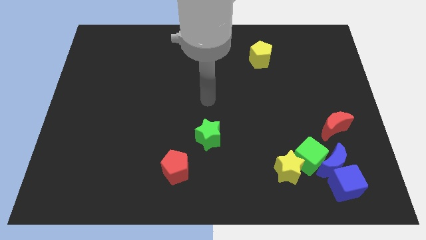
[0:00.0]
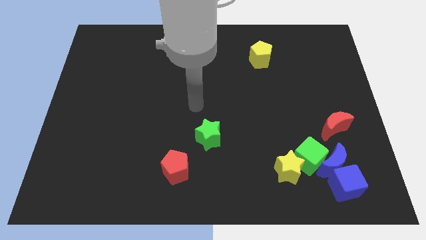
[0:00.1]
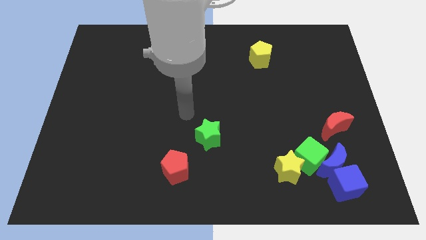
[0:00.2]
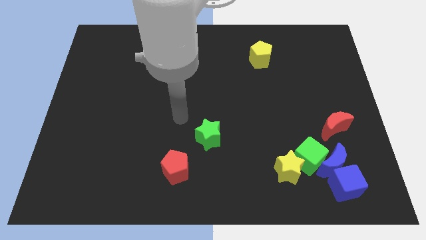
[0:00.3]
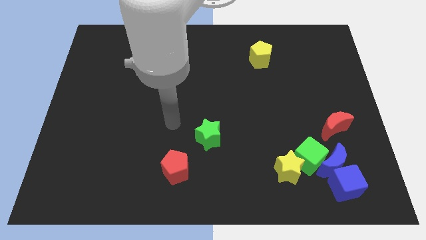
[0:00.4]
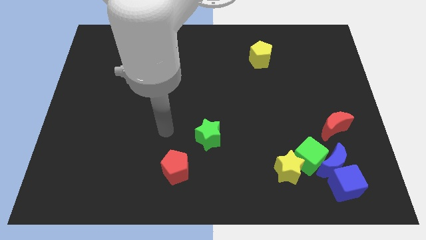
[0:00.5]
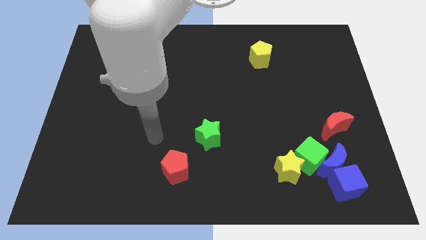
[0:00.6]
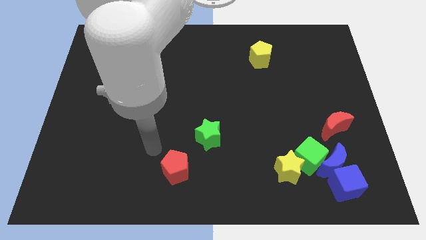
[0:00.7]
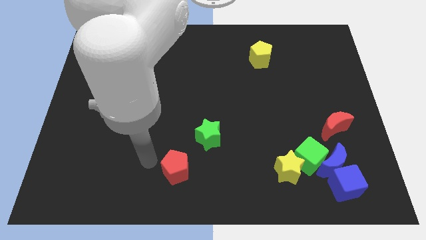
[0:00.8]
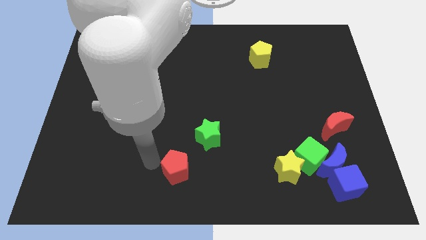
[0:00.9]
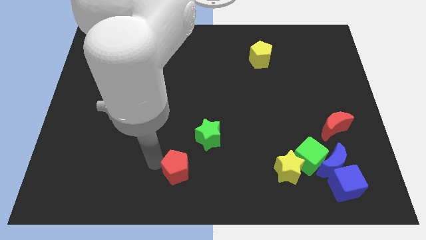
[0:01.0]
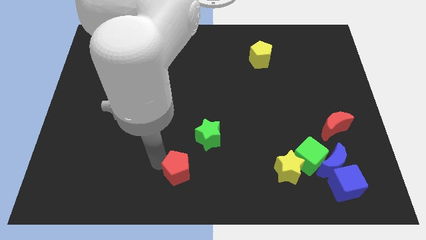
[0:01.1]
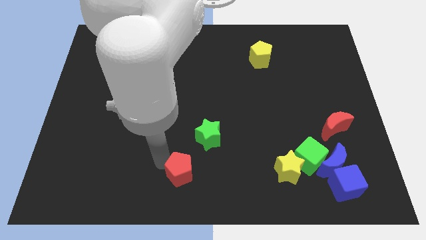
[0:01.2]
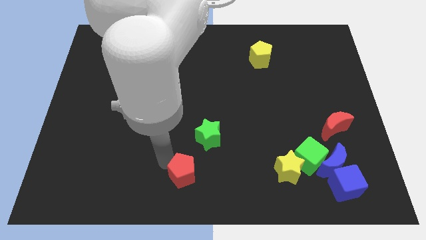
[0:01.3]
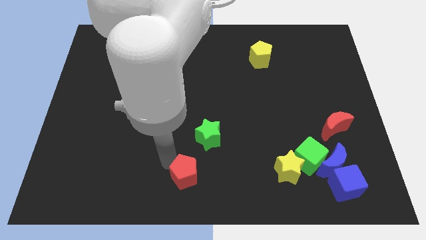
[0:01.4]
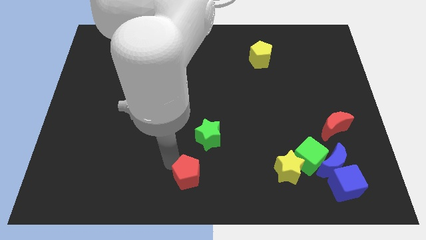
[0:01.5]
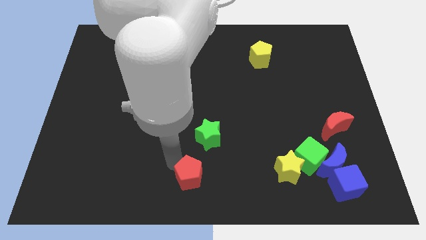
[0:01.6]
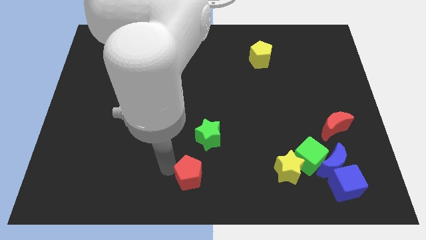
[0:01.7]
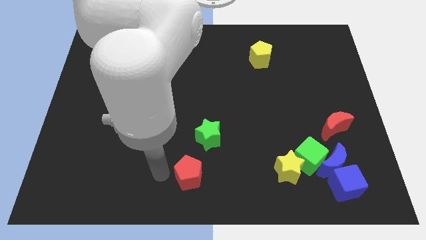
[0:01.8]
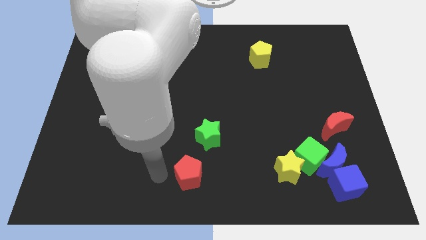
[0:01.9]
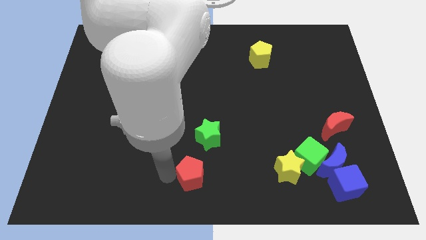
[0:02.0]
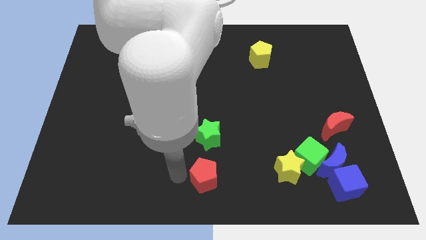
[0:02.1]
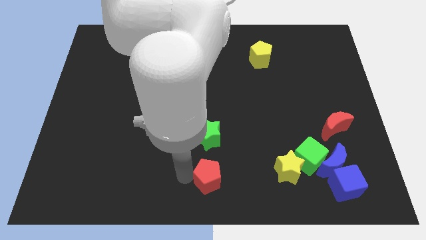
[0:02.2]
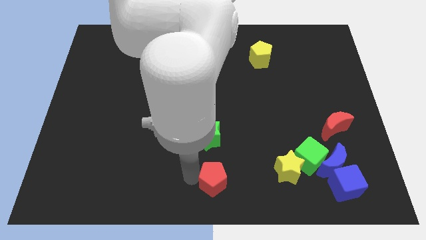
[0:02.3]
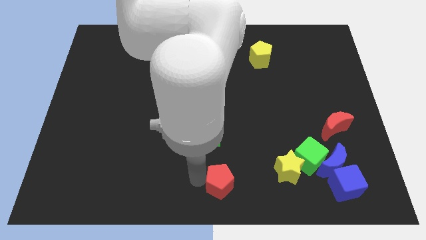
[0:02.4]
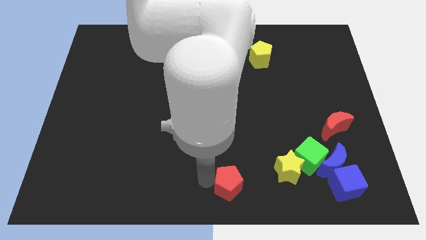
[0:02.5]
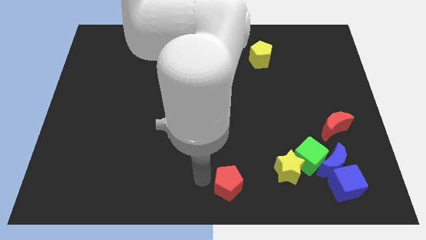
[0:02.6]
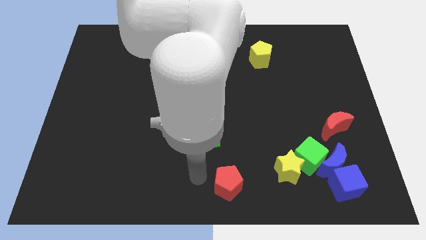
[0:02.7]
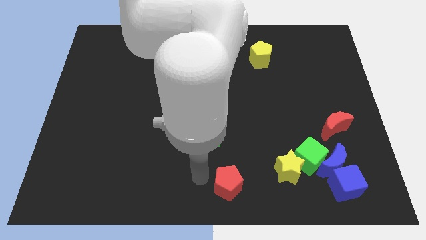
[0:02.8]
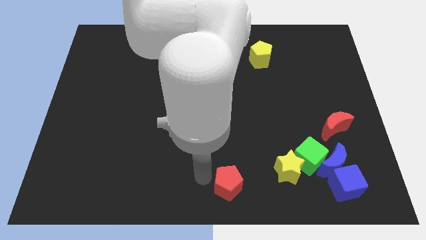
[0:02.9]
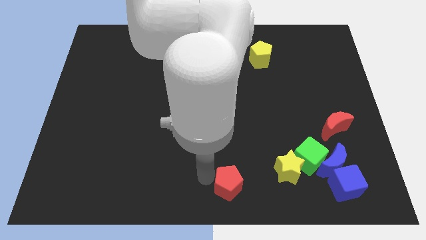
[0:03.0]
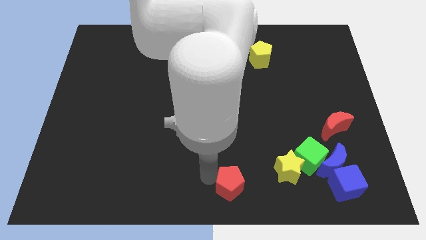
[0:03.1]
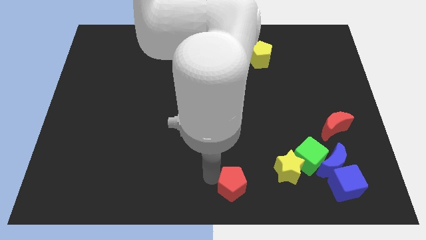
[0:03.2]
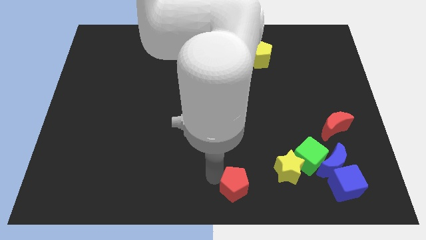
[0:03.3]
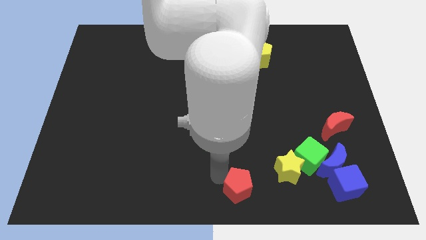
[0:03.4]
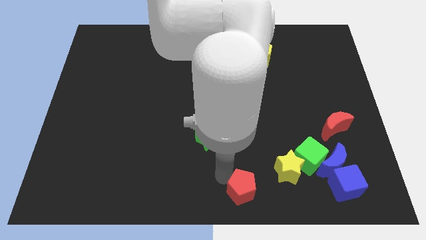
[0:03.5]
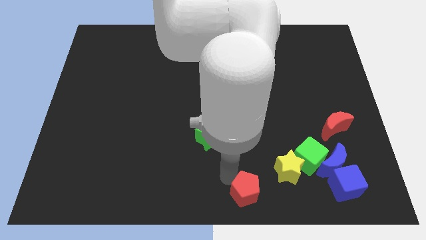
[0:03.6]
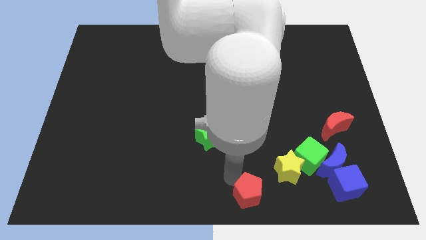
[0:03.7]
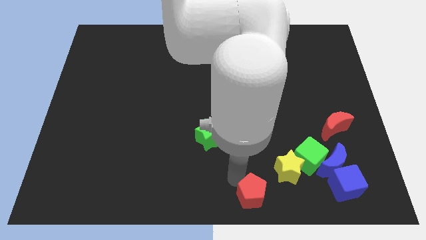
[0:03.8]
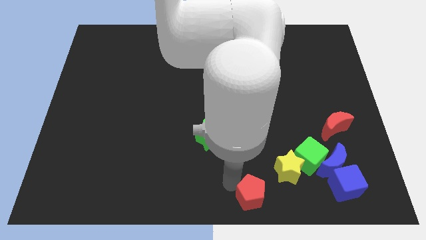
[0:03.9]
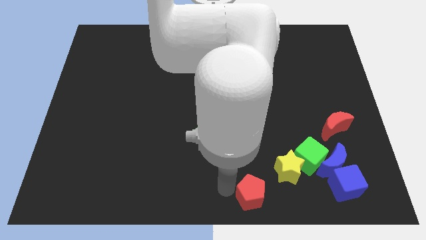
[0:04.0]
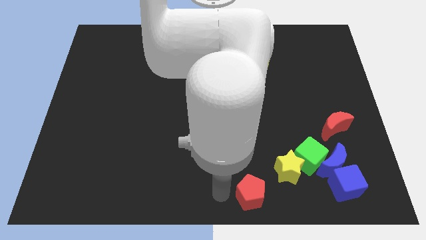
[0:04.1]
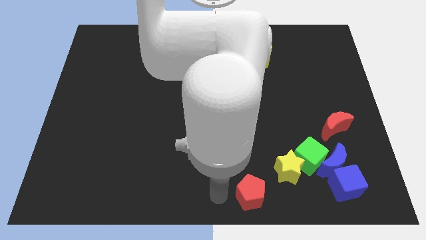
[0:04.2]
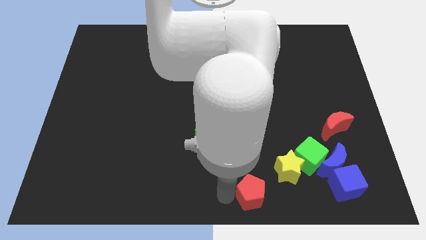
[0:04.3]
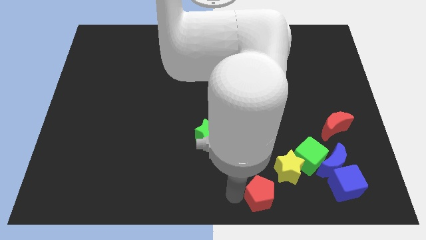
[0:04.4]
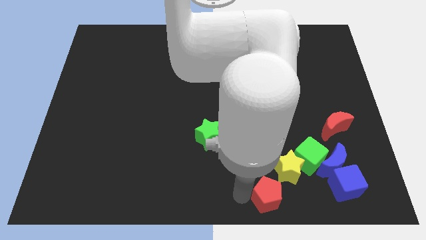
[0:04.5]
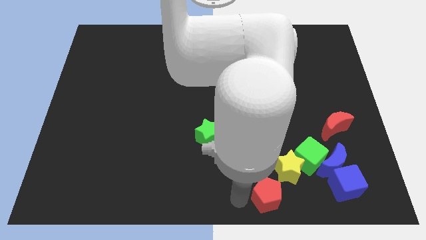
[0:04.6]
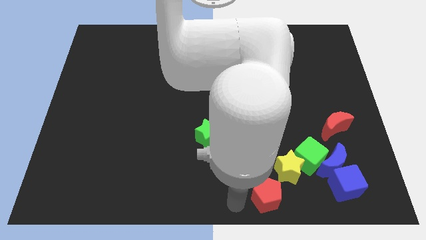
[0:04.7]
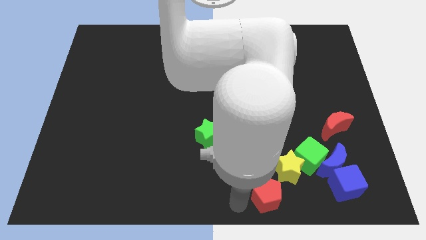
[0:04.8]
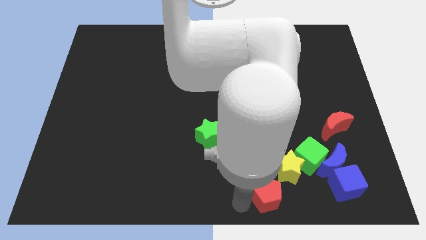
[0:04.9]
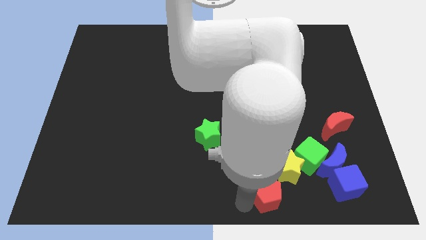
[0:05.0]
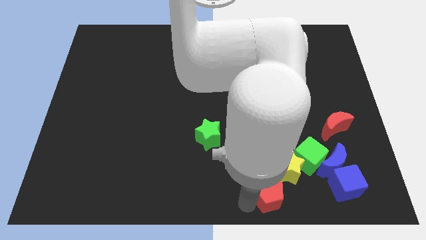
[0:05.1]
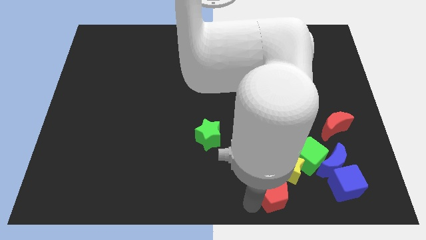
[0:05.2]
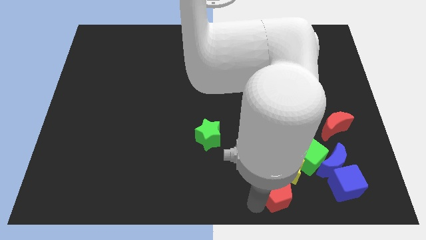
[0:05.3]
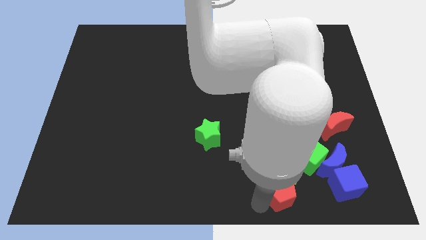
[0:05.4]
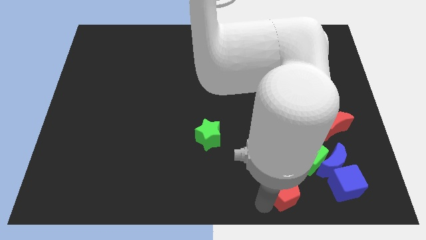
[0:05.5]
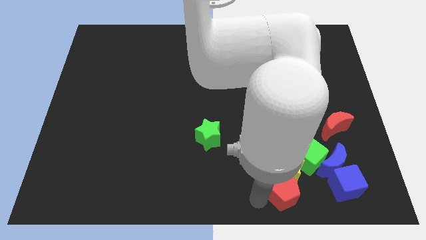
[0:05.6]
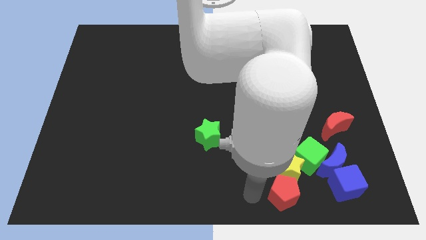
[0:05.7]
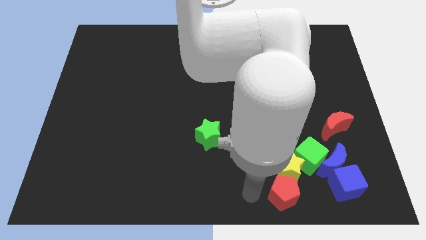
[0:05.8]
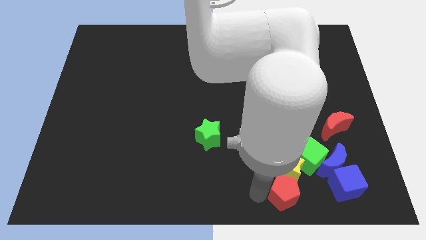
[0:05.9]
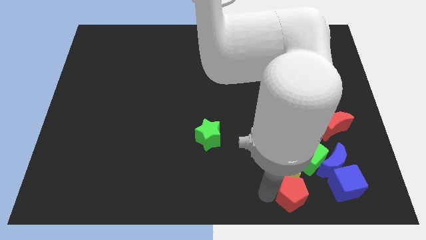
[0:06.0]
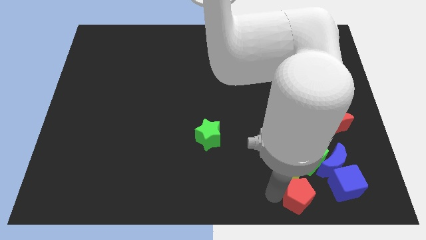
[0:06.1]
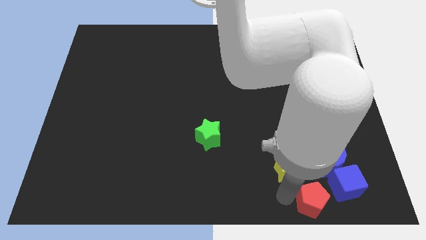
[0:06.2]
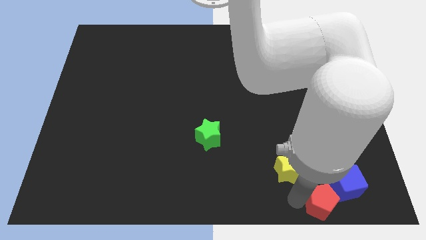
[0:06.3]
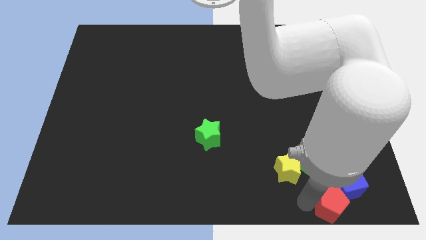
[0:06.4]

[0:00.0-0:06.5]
put the red pentagon to the blue cube

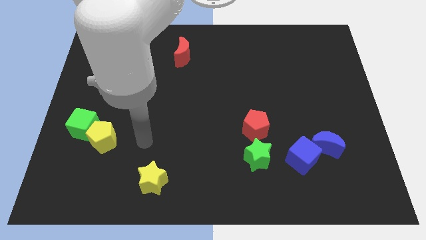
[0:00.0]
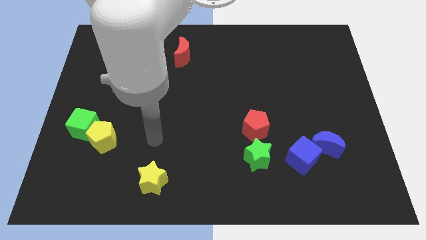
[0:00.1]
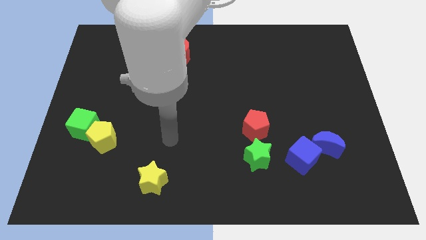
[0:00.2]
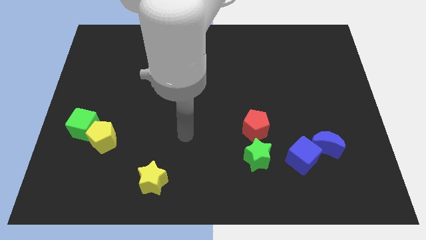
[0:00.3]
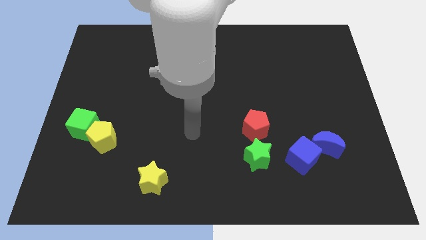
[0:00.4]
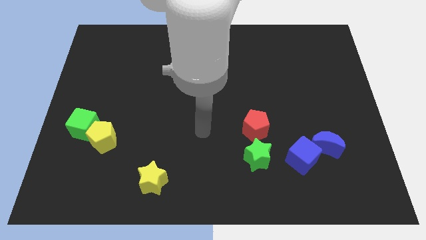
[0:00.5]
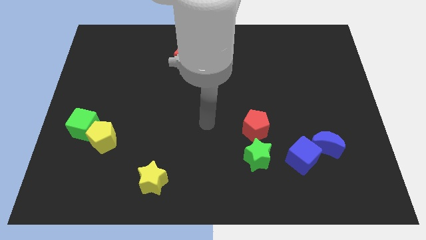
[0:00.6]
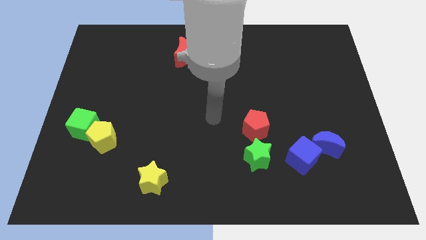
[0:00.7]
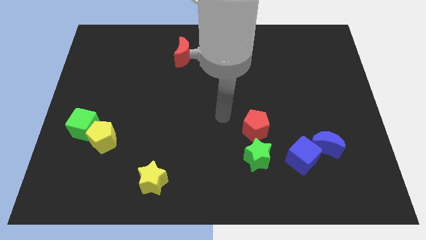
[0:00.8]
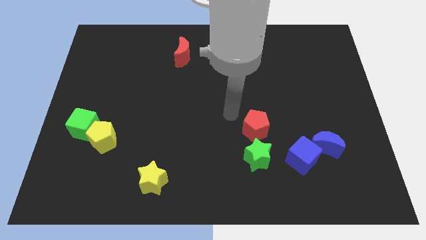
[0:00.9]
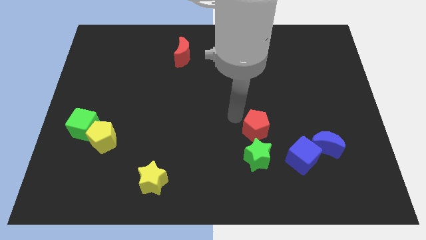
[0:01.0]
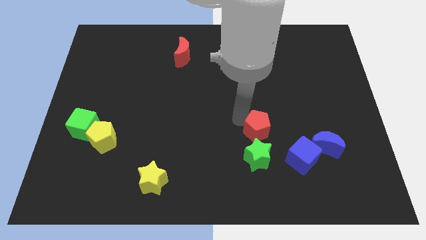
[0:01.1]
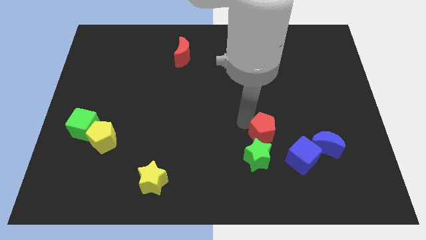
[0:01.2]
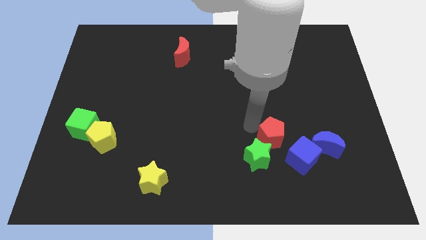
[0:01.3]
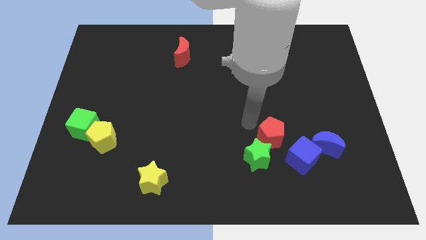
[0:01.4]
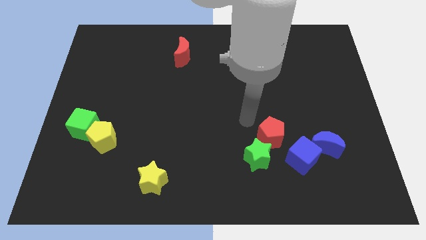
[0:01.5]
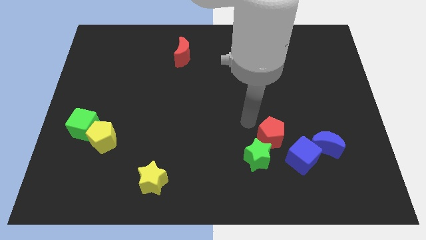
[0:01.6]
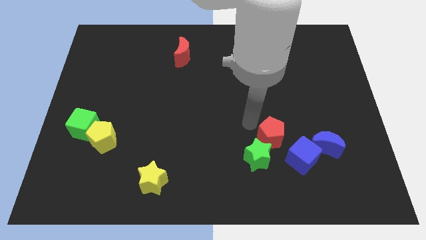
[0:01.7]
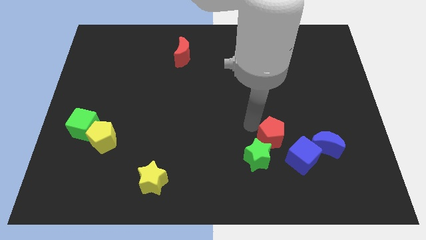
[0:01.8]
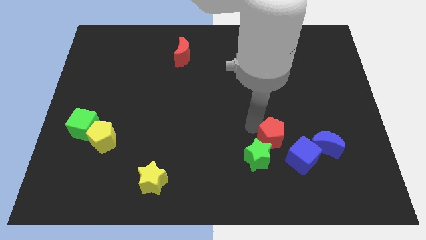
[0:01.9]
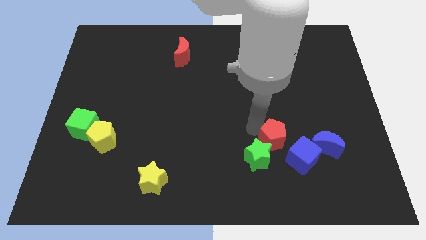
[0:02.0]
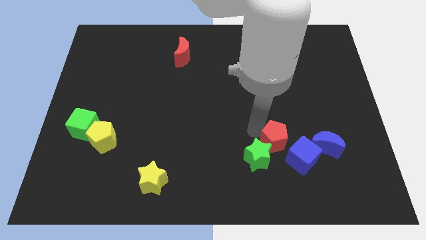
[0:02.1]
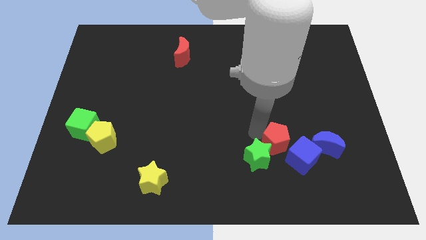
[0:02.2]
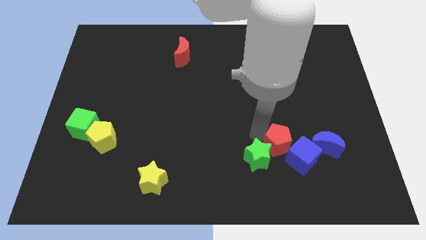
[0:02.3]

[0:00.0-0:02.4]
put the red pentagon close to the blue cube
